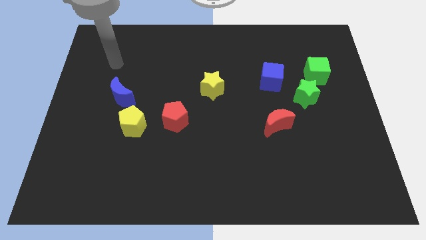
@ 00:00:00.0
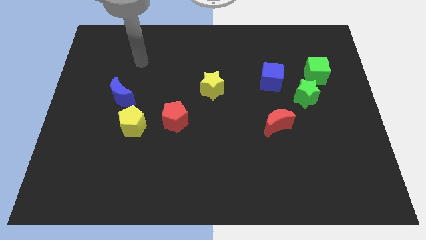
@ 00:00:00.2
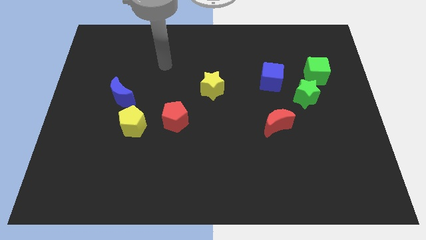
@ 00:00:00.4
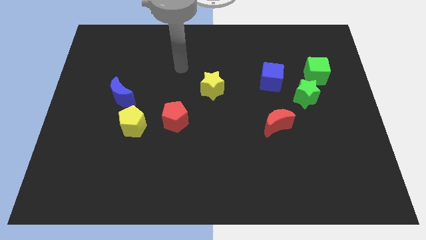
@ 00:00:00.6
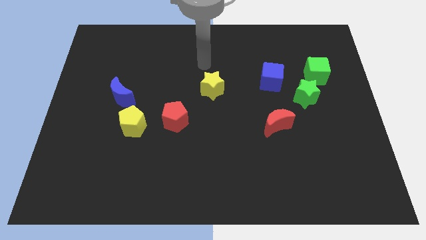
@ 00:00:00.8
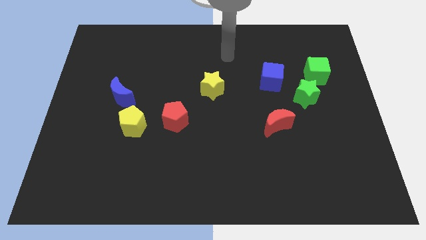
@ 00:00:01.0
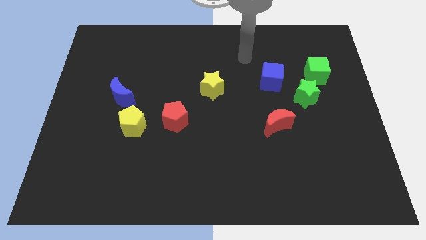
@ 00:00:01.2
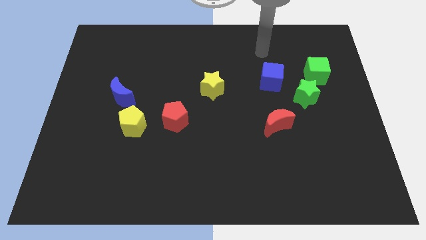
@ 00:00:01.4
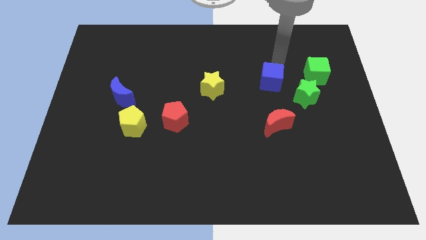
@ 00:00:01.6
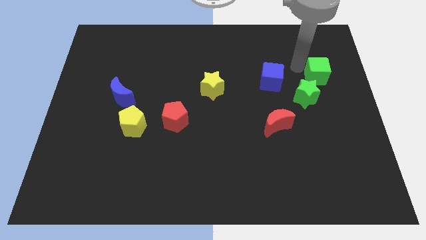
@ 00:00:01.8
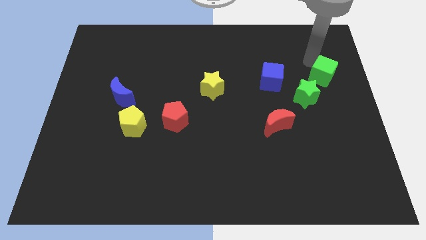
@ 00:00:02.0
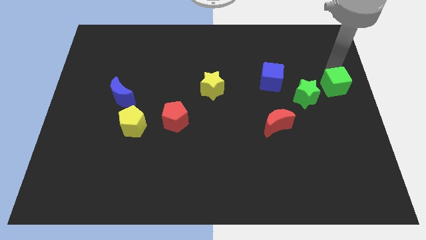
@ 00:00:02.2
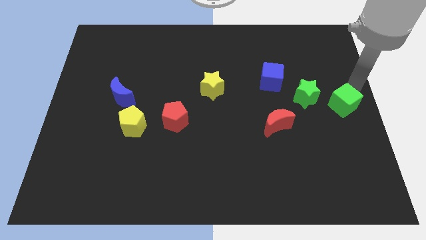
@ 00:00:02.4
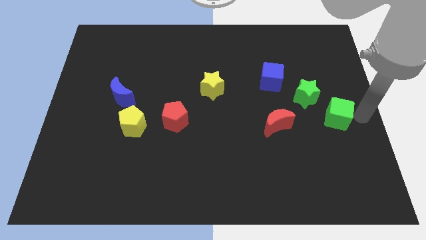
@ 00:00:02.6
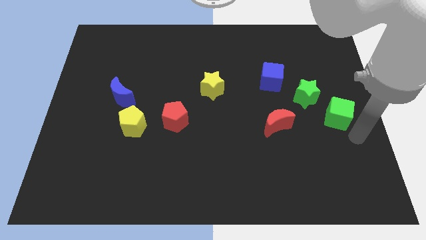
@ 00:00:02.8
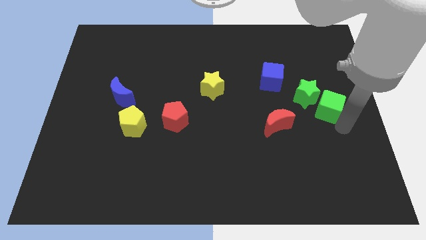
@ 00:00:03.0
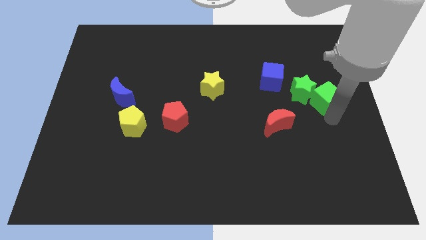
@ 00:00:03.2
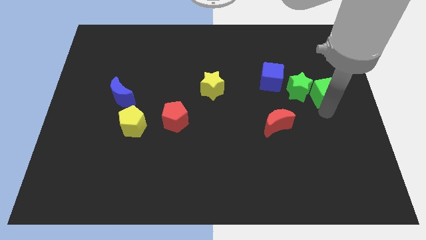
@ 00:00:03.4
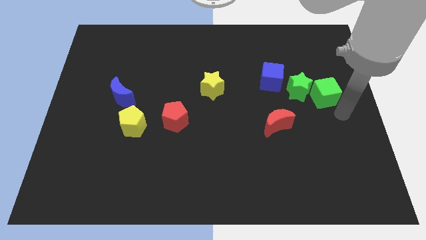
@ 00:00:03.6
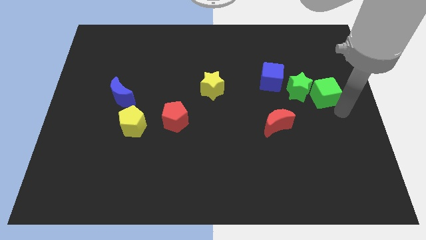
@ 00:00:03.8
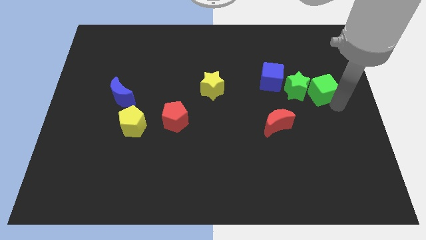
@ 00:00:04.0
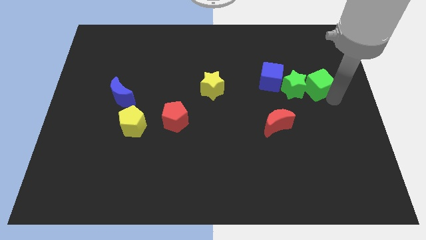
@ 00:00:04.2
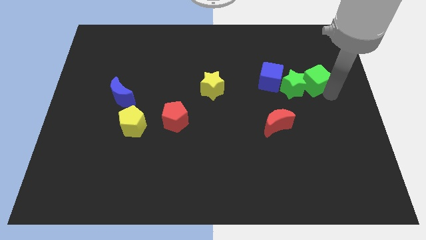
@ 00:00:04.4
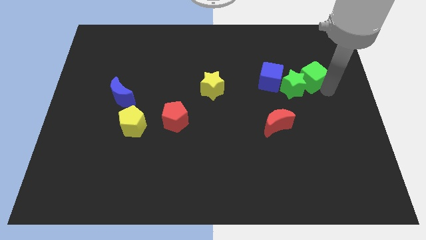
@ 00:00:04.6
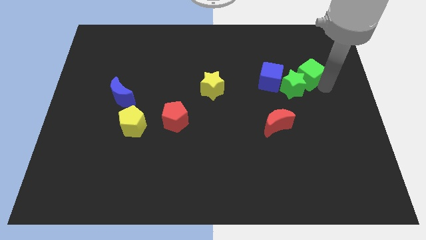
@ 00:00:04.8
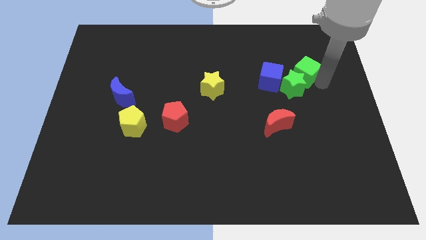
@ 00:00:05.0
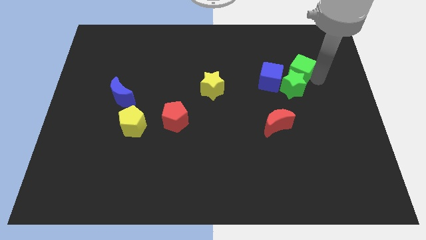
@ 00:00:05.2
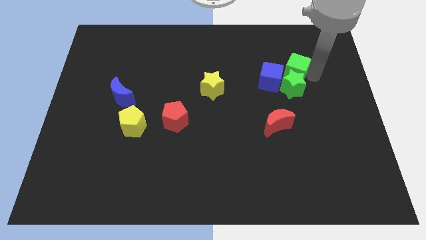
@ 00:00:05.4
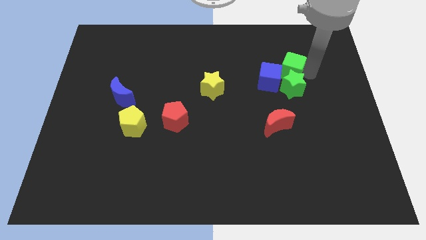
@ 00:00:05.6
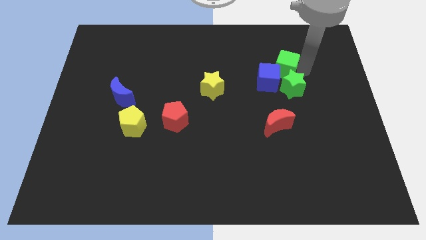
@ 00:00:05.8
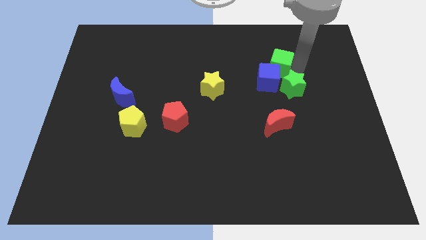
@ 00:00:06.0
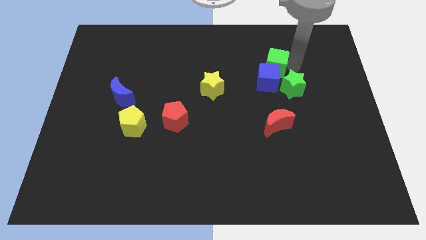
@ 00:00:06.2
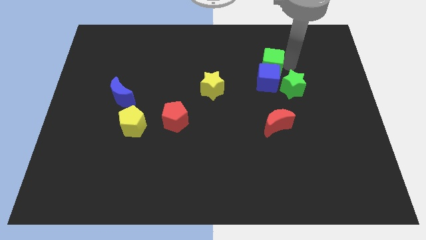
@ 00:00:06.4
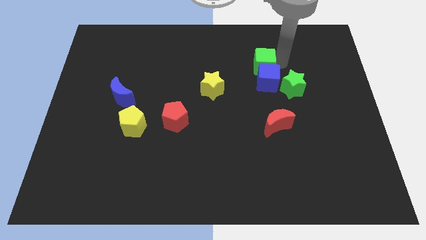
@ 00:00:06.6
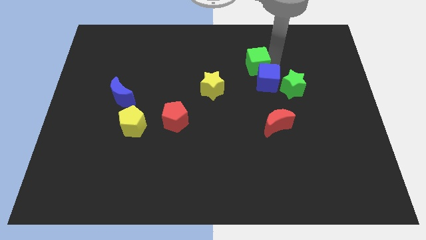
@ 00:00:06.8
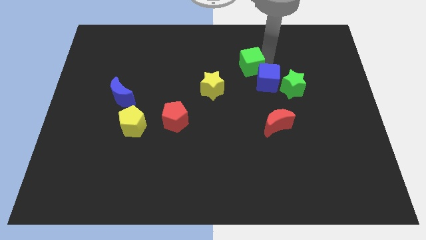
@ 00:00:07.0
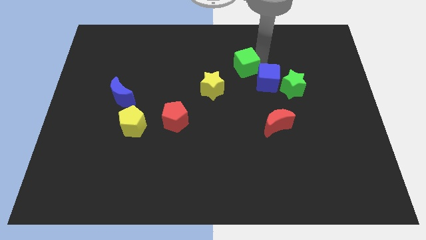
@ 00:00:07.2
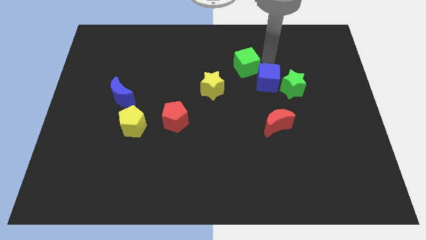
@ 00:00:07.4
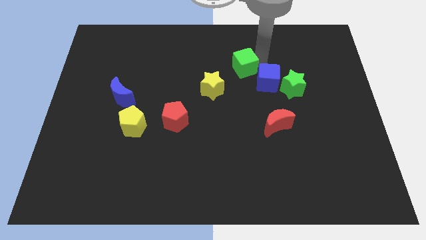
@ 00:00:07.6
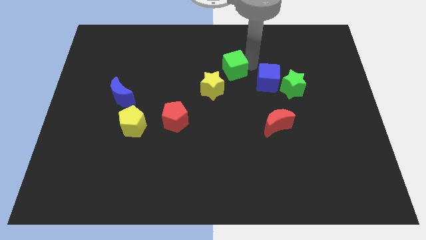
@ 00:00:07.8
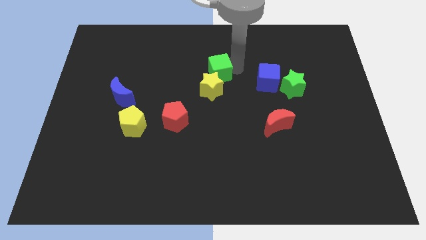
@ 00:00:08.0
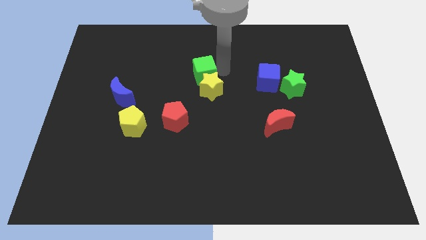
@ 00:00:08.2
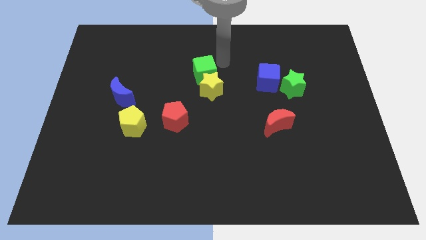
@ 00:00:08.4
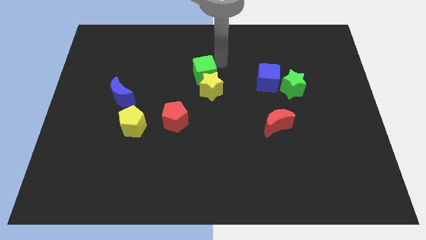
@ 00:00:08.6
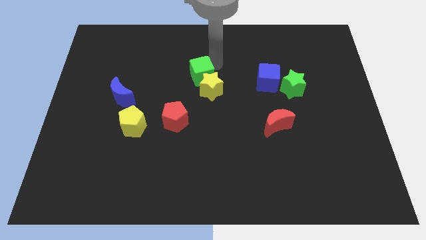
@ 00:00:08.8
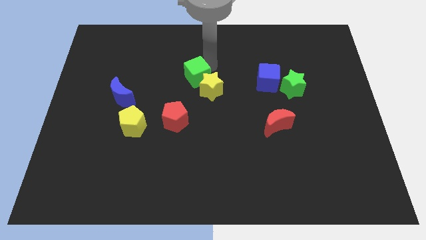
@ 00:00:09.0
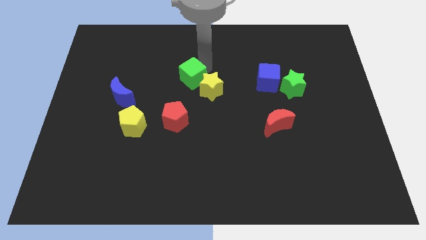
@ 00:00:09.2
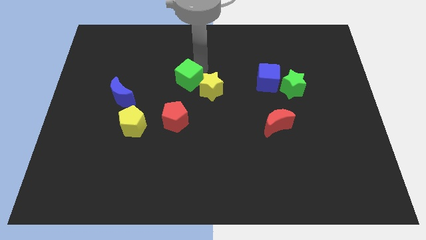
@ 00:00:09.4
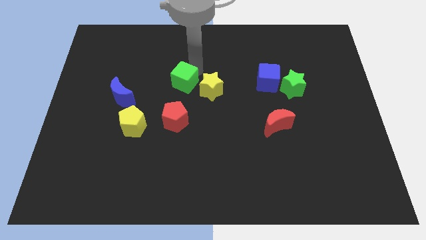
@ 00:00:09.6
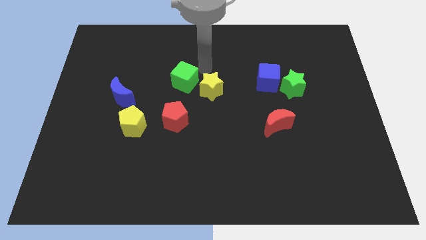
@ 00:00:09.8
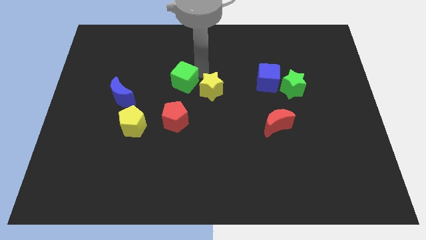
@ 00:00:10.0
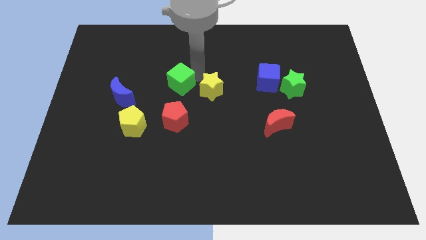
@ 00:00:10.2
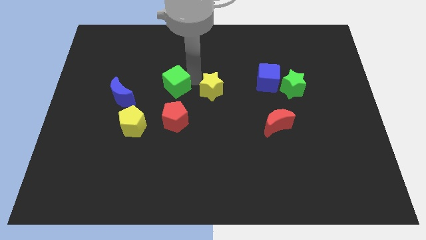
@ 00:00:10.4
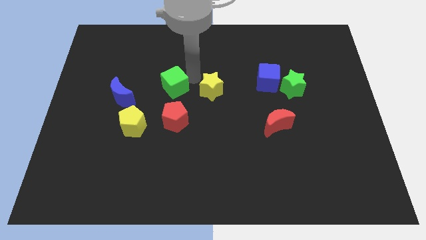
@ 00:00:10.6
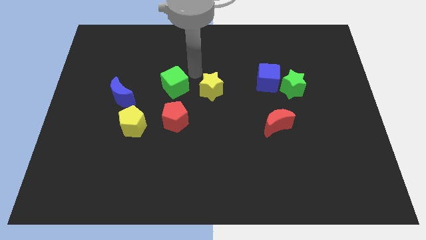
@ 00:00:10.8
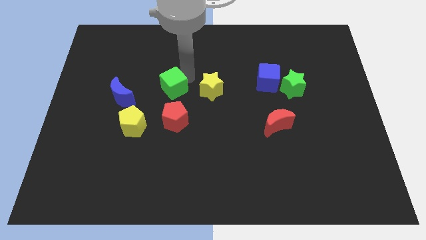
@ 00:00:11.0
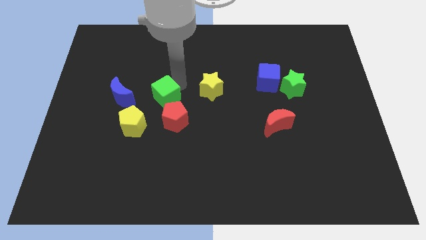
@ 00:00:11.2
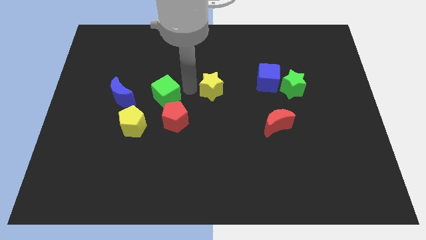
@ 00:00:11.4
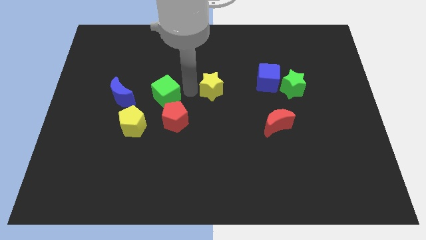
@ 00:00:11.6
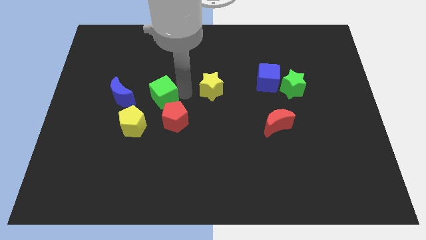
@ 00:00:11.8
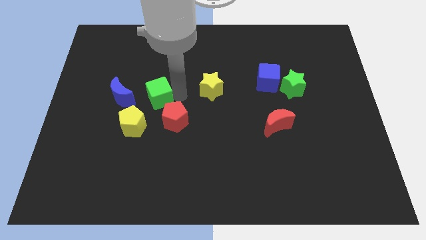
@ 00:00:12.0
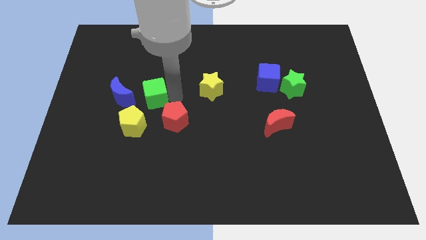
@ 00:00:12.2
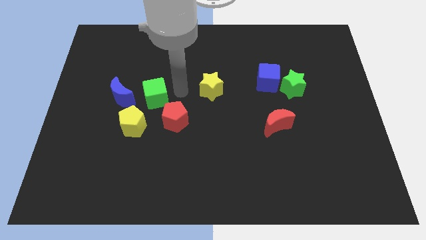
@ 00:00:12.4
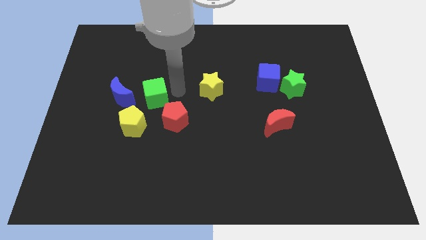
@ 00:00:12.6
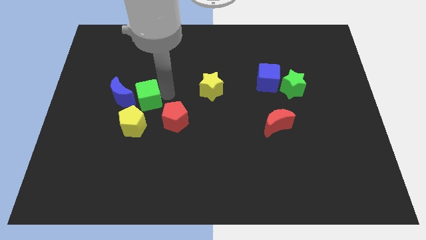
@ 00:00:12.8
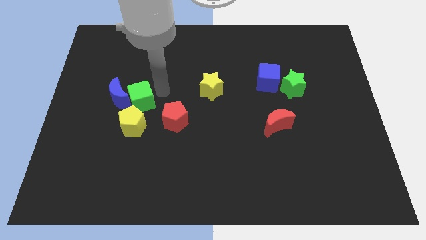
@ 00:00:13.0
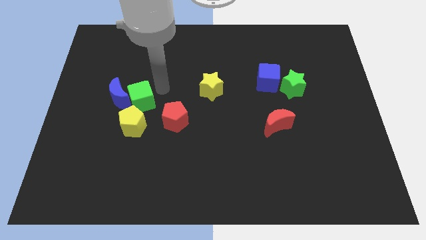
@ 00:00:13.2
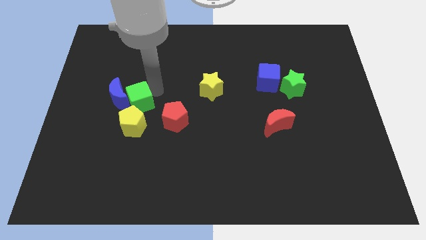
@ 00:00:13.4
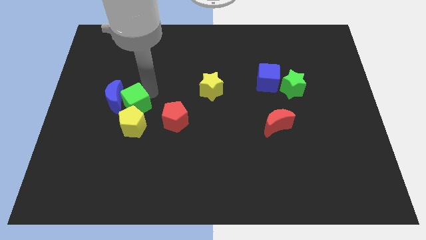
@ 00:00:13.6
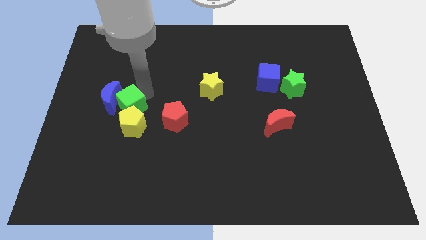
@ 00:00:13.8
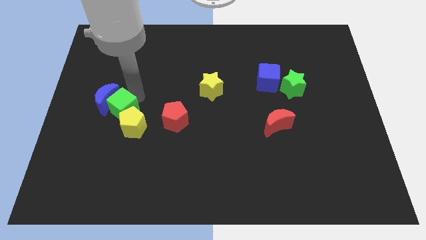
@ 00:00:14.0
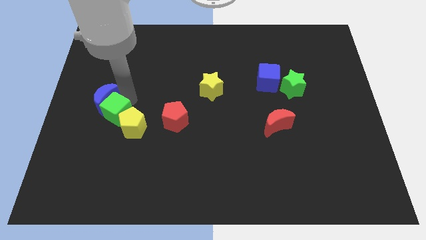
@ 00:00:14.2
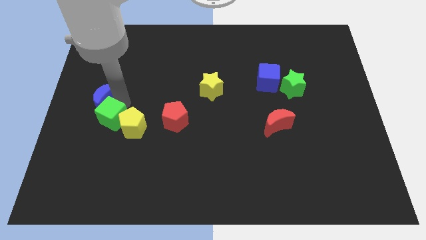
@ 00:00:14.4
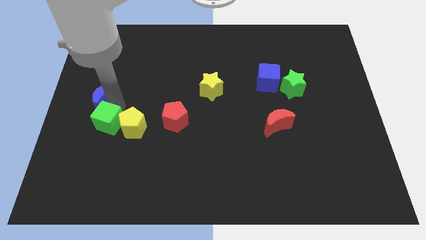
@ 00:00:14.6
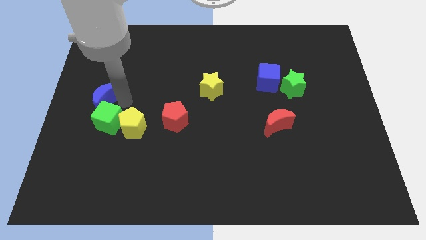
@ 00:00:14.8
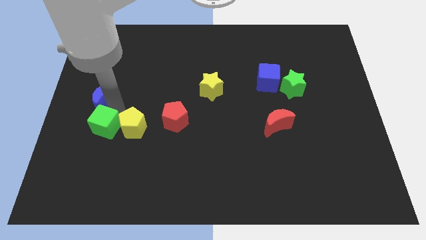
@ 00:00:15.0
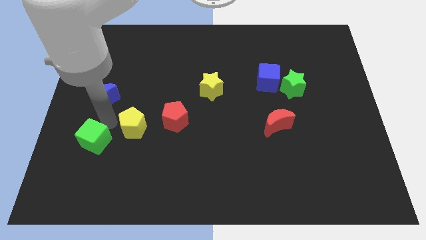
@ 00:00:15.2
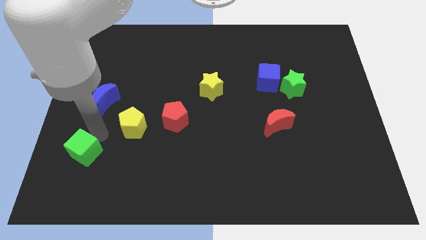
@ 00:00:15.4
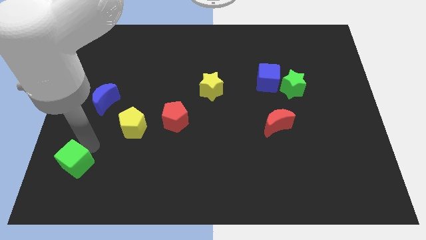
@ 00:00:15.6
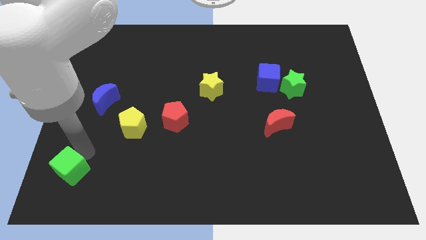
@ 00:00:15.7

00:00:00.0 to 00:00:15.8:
put the green cube to the bottom left corner
